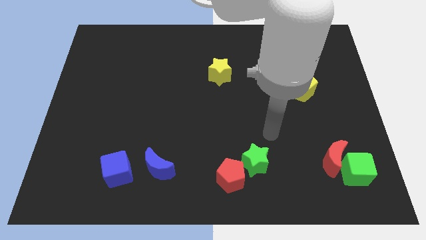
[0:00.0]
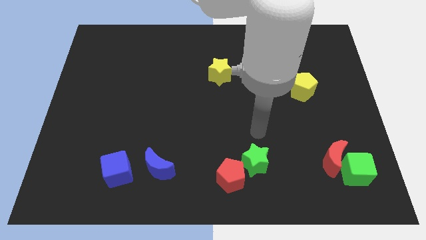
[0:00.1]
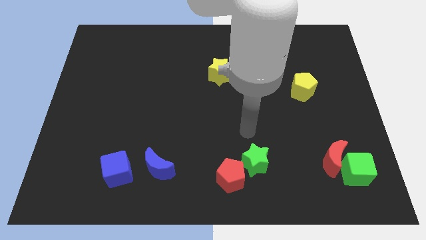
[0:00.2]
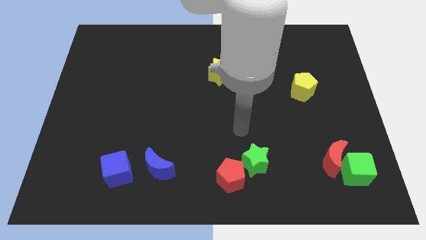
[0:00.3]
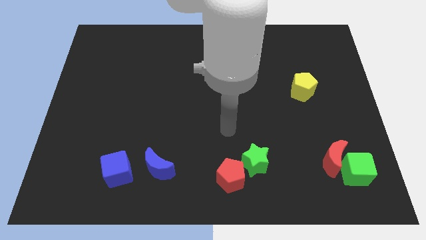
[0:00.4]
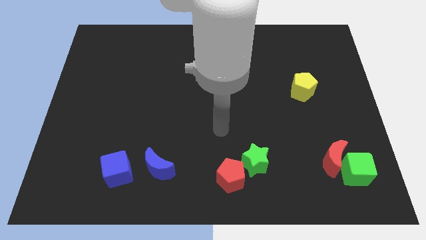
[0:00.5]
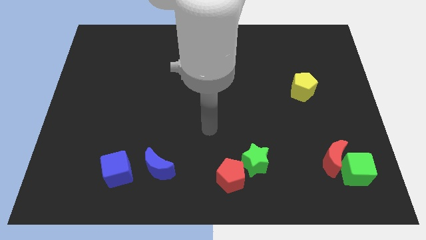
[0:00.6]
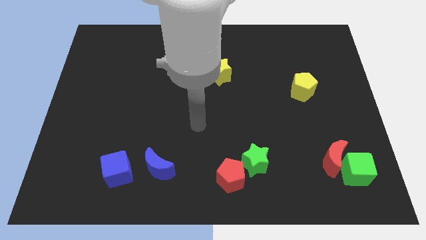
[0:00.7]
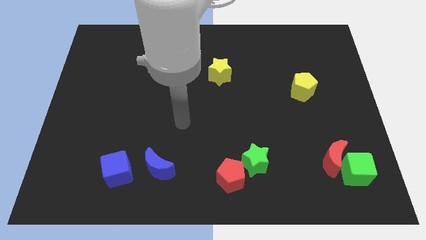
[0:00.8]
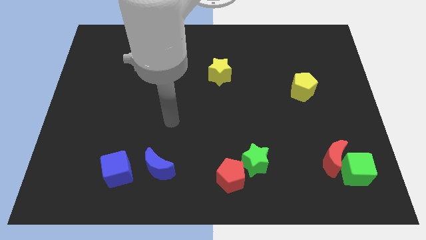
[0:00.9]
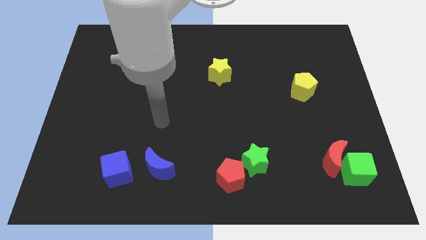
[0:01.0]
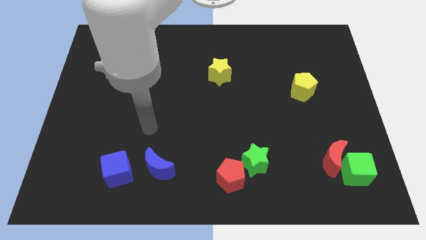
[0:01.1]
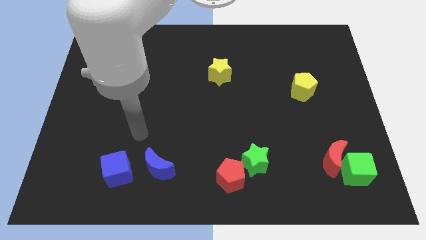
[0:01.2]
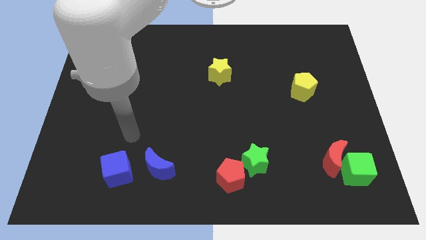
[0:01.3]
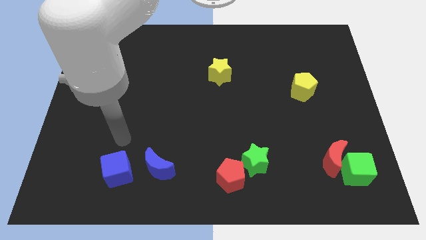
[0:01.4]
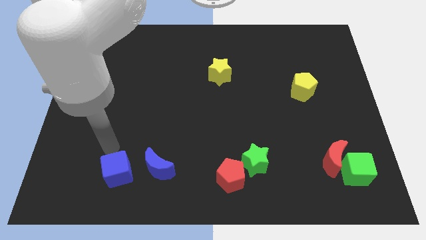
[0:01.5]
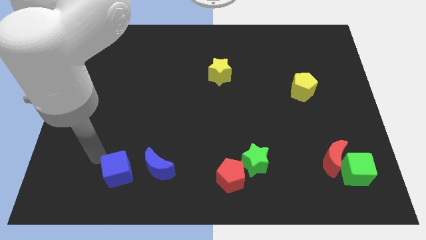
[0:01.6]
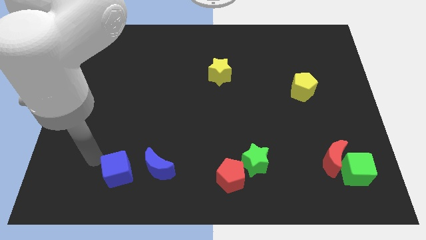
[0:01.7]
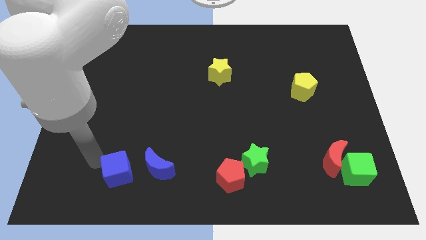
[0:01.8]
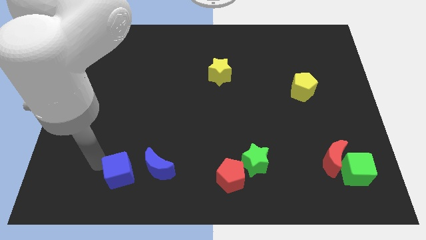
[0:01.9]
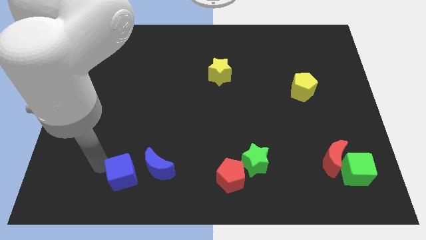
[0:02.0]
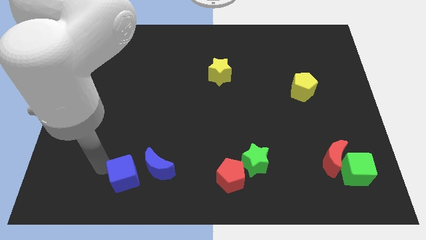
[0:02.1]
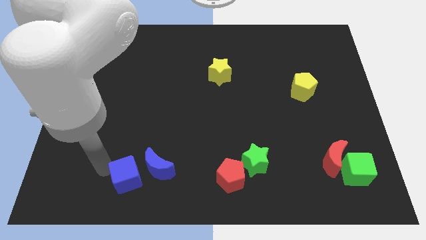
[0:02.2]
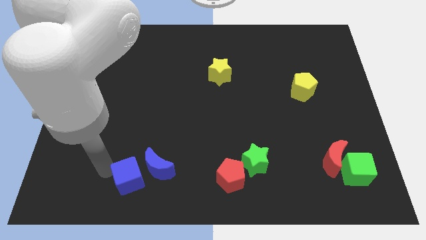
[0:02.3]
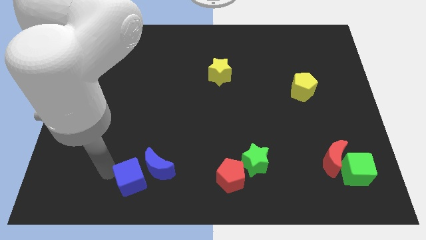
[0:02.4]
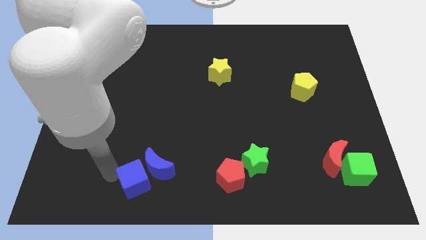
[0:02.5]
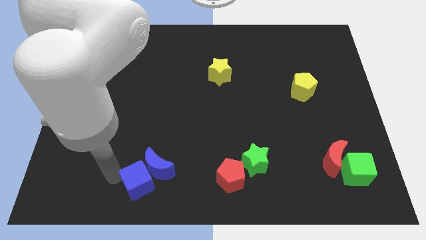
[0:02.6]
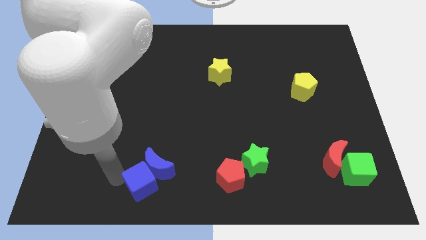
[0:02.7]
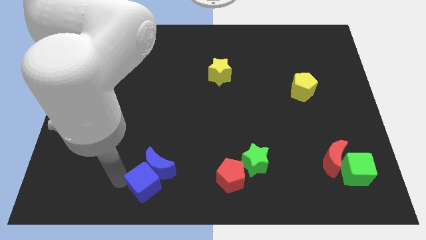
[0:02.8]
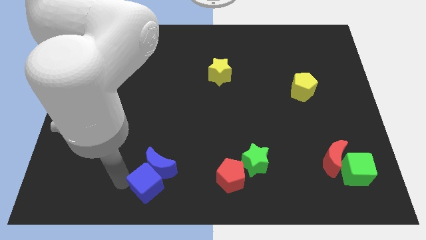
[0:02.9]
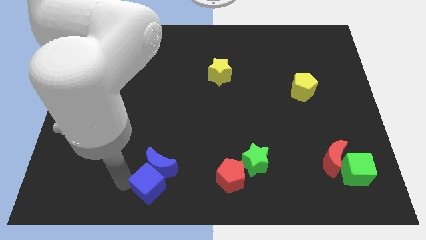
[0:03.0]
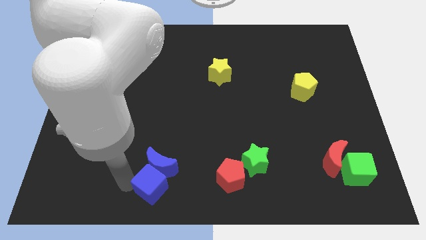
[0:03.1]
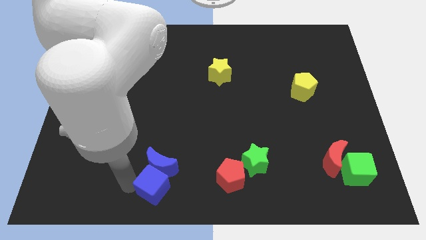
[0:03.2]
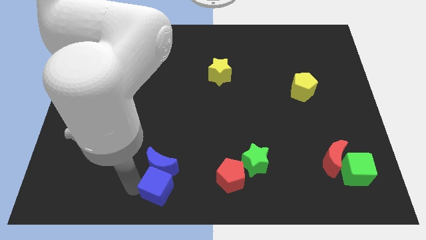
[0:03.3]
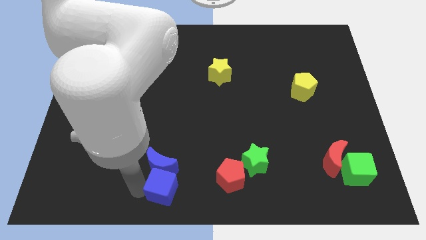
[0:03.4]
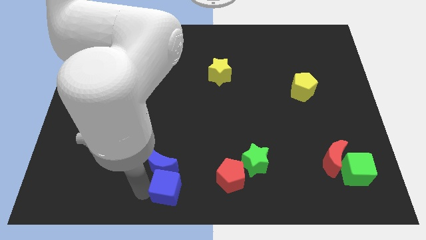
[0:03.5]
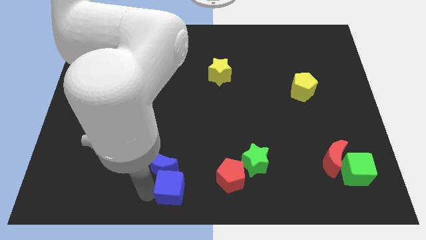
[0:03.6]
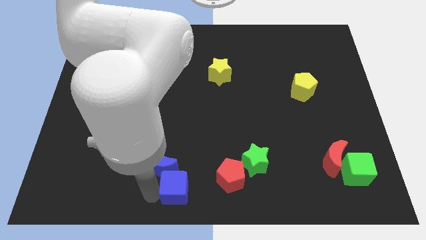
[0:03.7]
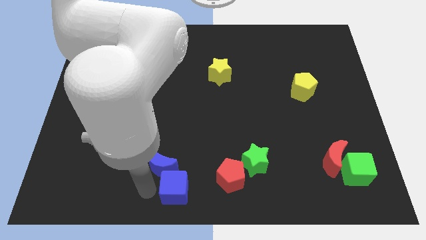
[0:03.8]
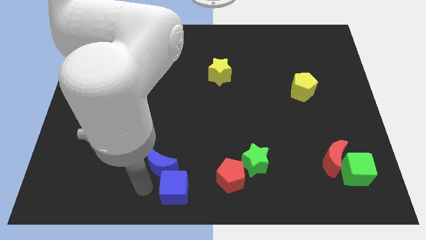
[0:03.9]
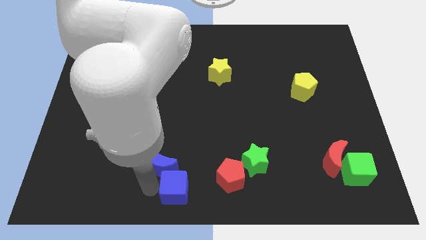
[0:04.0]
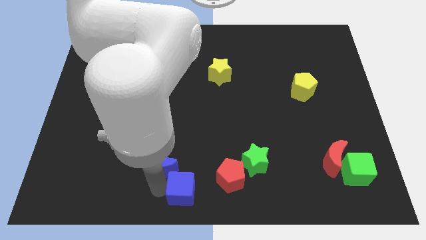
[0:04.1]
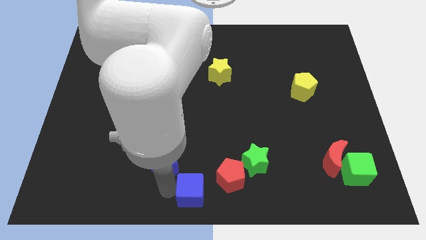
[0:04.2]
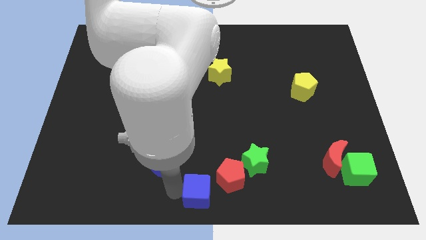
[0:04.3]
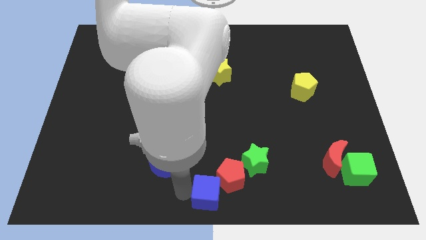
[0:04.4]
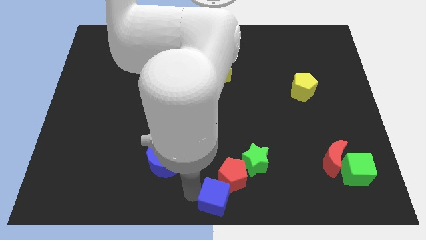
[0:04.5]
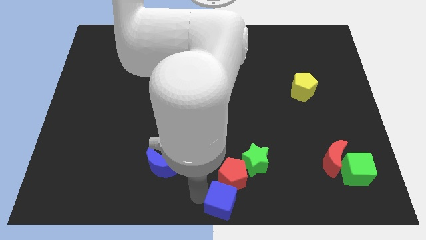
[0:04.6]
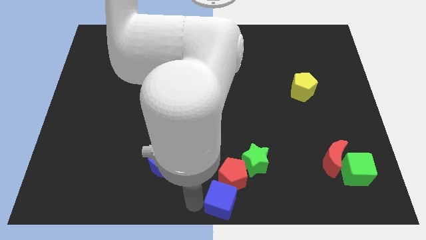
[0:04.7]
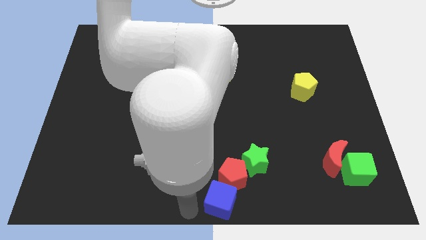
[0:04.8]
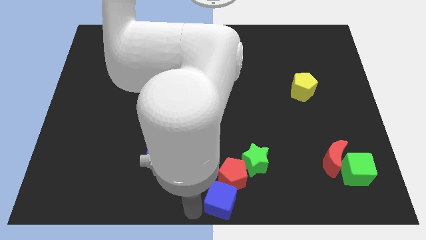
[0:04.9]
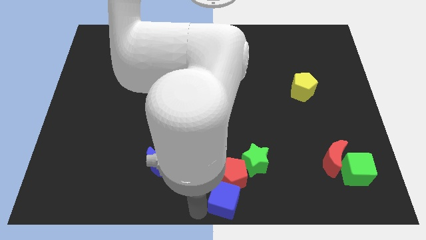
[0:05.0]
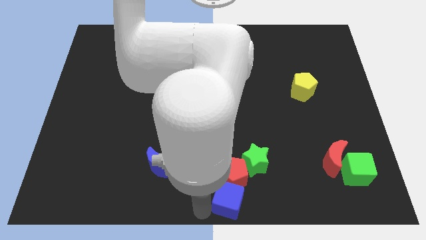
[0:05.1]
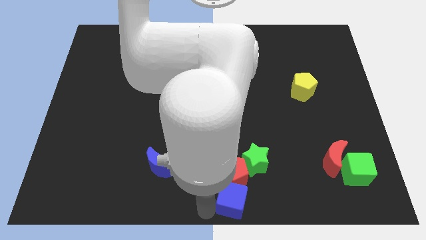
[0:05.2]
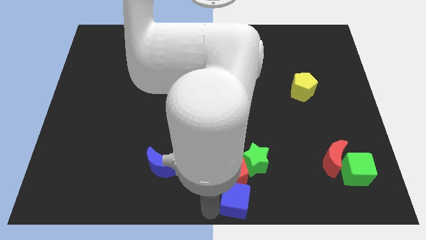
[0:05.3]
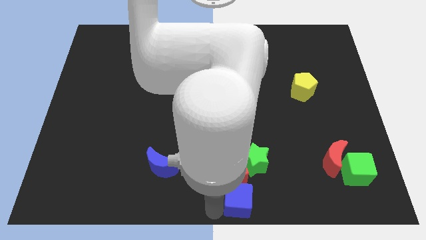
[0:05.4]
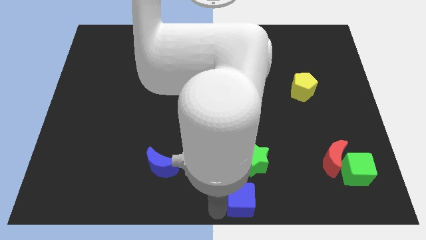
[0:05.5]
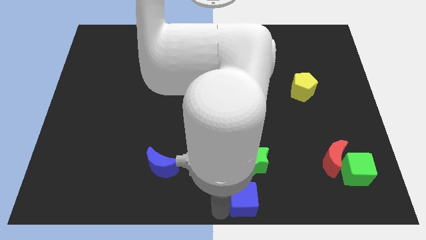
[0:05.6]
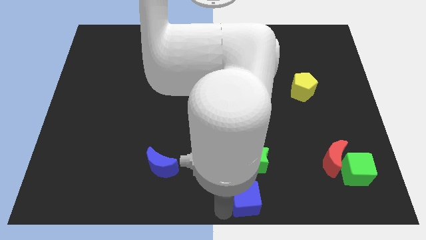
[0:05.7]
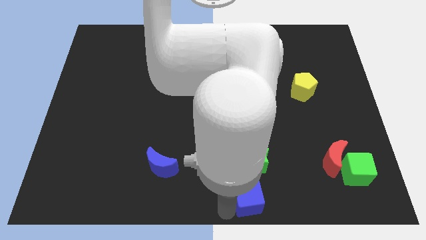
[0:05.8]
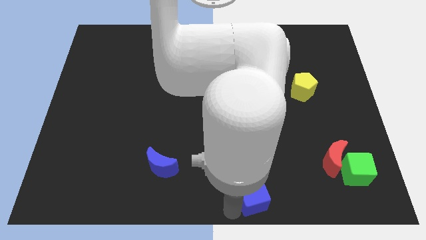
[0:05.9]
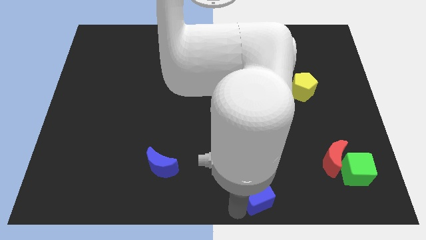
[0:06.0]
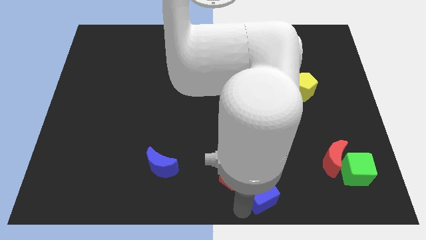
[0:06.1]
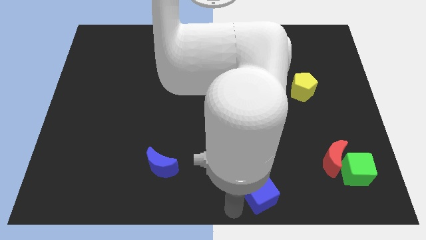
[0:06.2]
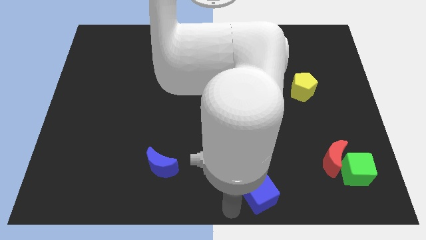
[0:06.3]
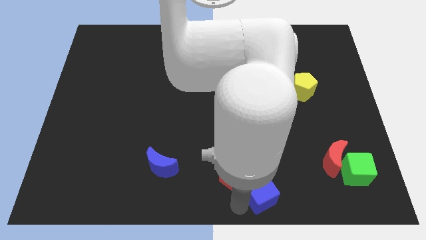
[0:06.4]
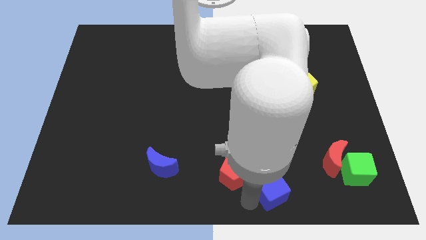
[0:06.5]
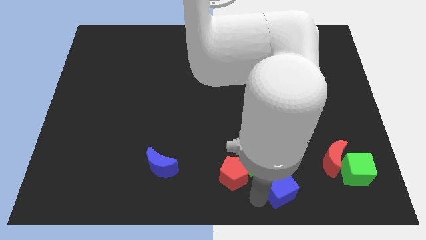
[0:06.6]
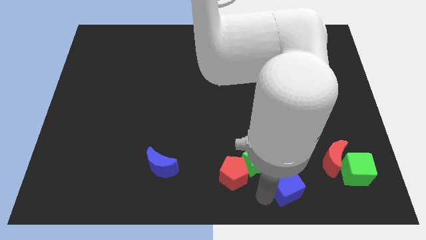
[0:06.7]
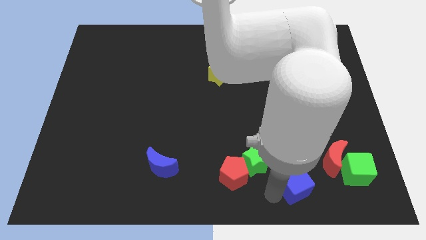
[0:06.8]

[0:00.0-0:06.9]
put the blue cube just left of the green cube
